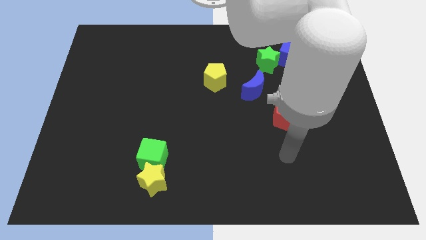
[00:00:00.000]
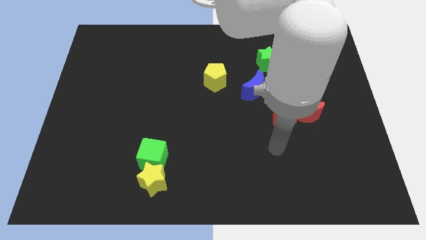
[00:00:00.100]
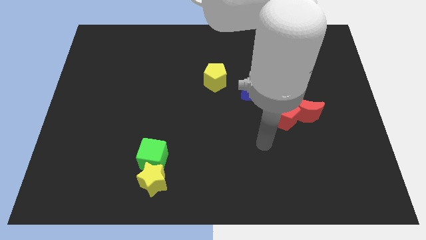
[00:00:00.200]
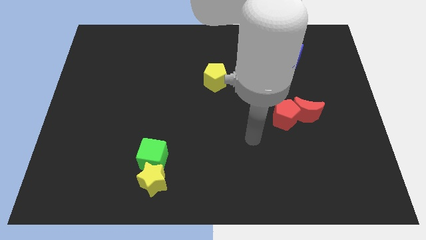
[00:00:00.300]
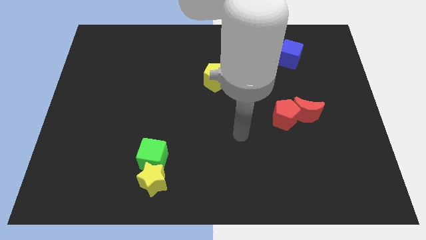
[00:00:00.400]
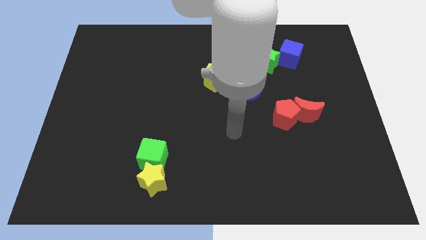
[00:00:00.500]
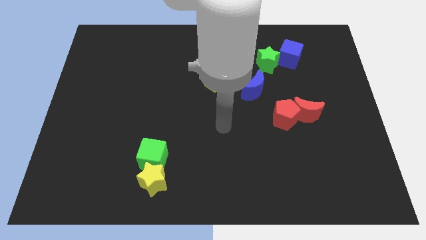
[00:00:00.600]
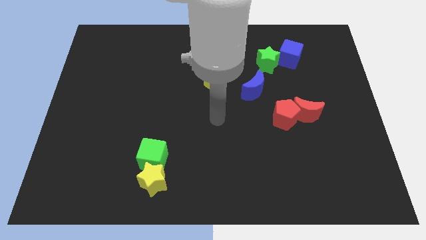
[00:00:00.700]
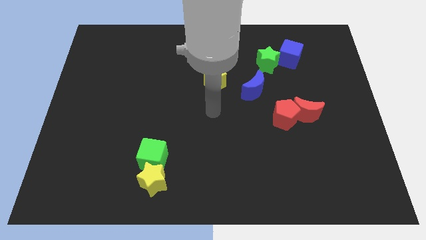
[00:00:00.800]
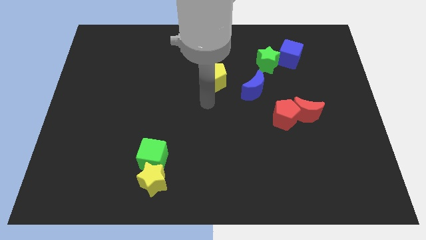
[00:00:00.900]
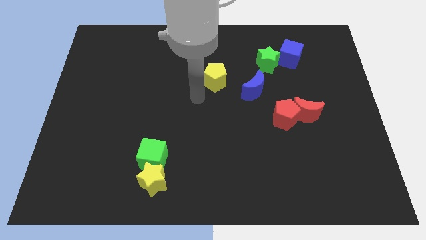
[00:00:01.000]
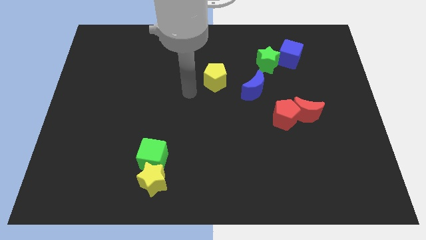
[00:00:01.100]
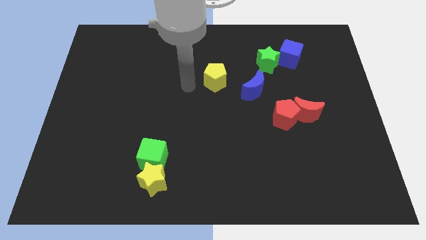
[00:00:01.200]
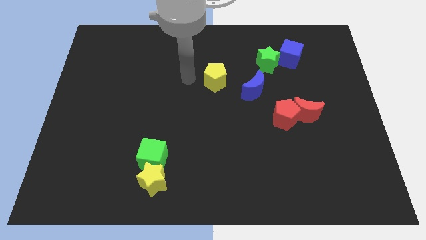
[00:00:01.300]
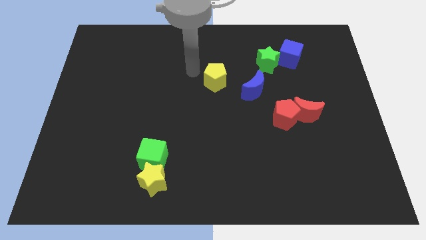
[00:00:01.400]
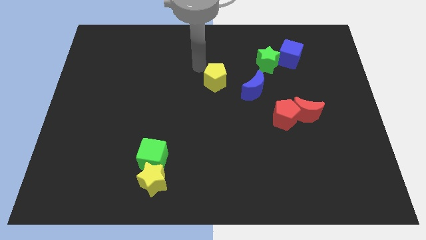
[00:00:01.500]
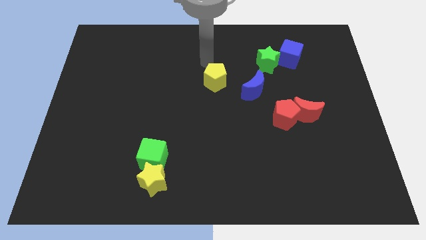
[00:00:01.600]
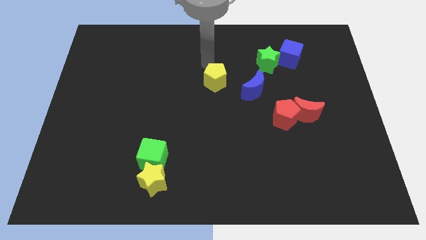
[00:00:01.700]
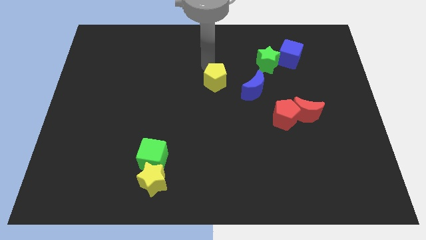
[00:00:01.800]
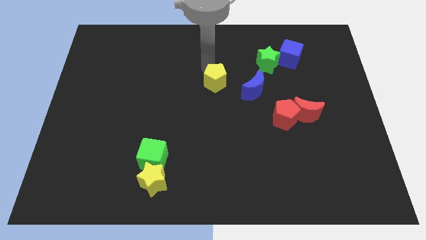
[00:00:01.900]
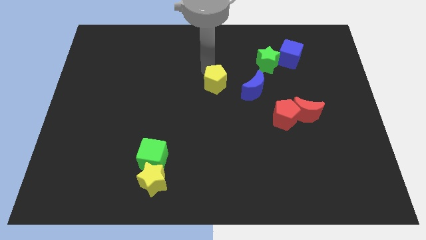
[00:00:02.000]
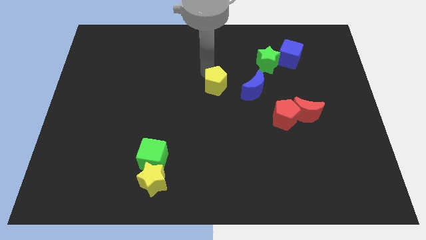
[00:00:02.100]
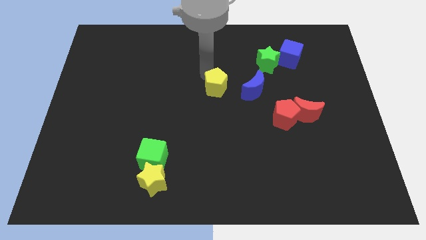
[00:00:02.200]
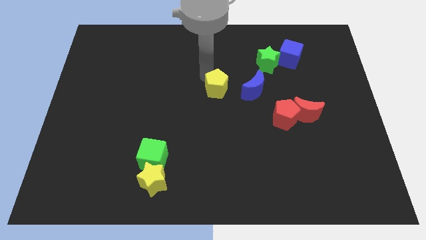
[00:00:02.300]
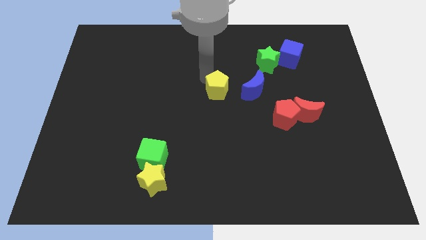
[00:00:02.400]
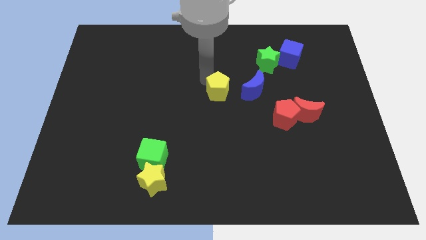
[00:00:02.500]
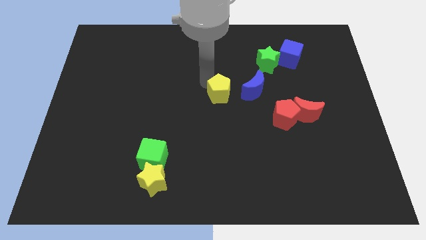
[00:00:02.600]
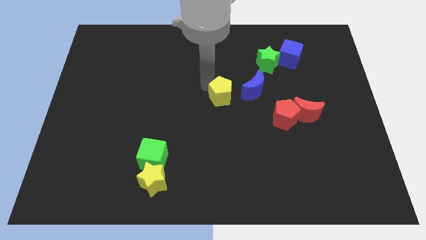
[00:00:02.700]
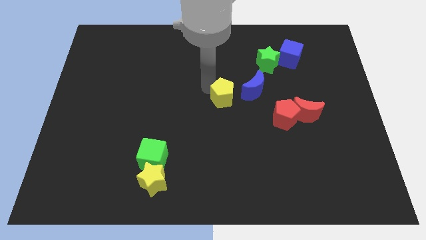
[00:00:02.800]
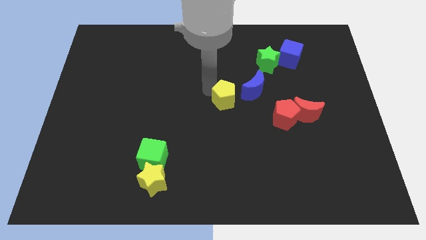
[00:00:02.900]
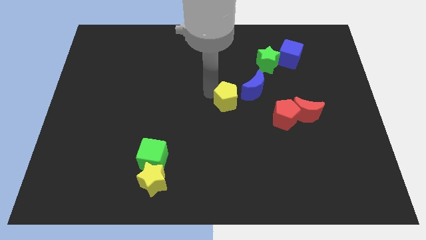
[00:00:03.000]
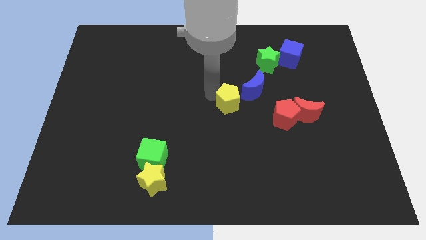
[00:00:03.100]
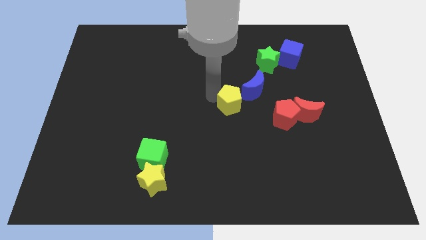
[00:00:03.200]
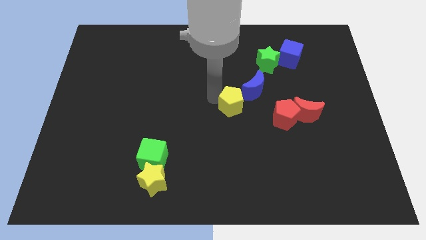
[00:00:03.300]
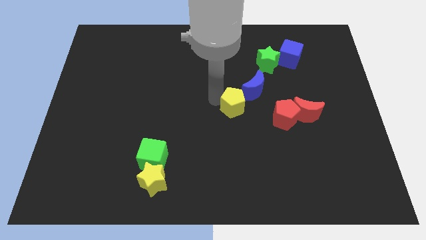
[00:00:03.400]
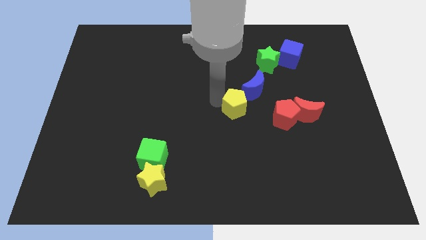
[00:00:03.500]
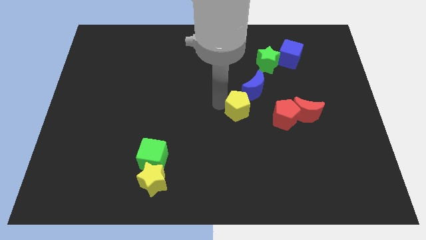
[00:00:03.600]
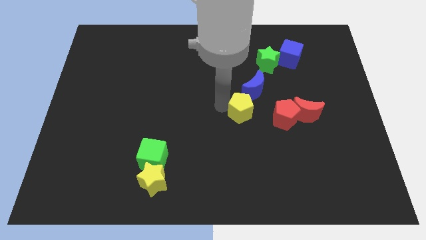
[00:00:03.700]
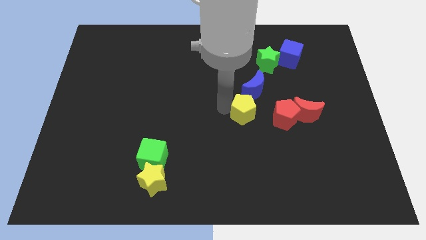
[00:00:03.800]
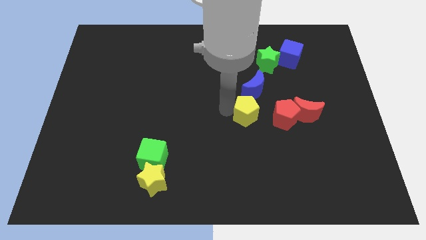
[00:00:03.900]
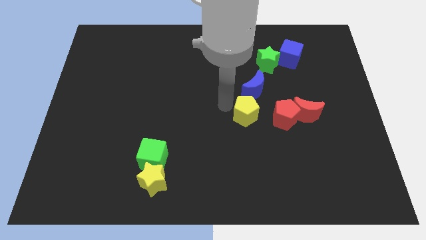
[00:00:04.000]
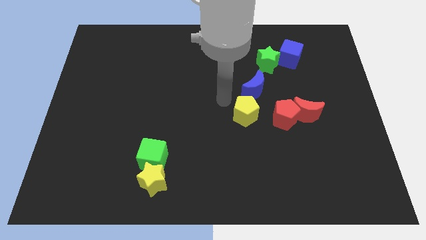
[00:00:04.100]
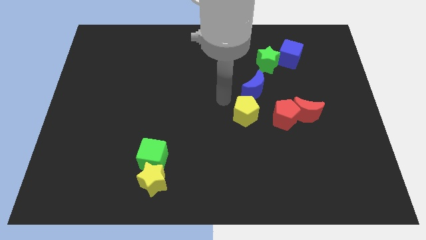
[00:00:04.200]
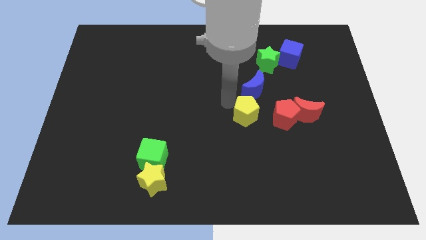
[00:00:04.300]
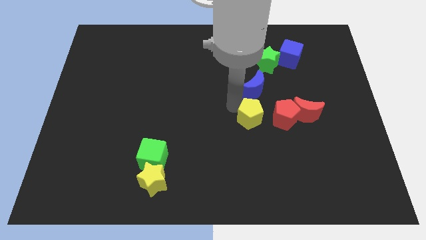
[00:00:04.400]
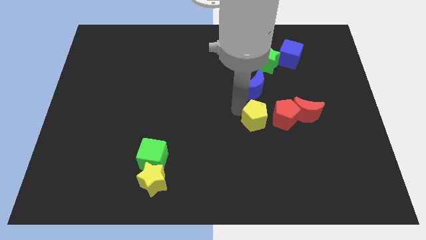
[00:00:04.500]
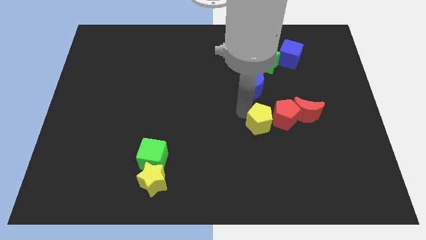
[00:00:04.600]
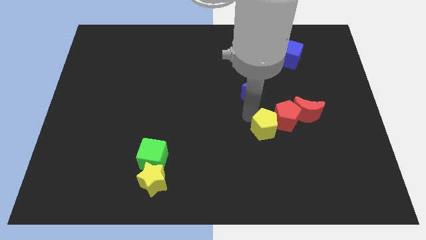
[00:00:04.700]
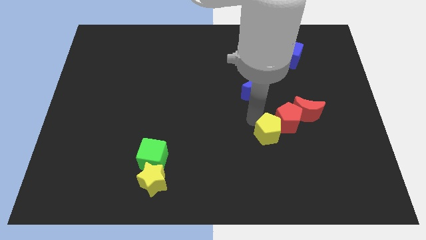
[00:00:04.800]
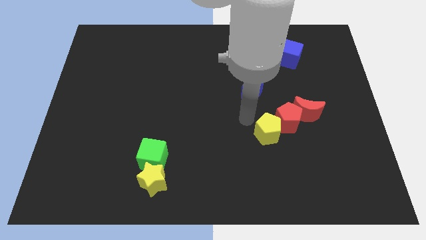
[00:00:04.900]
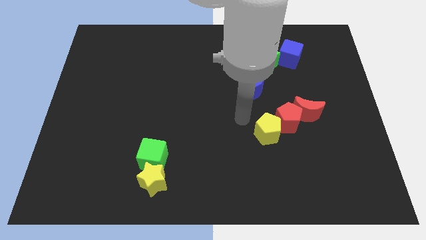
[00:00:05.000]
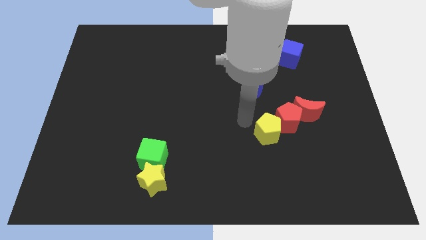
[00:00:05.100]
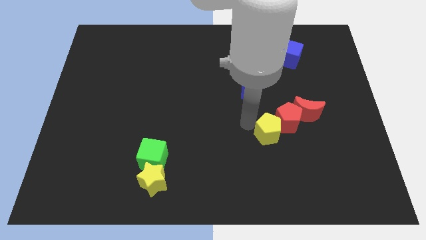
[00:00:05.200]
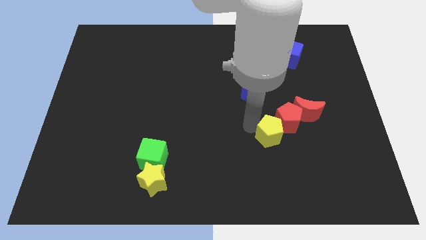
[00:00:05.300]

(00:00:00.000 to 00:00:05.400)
slide the yellow pentagon diagonally downwards and to the right

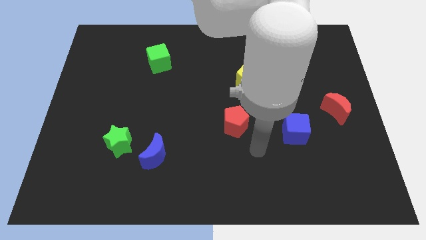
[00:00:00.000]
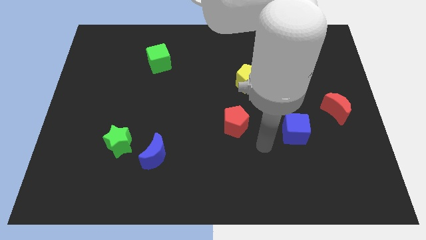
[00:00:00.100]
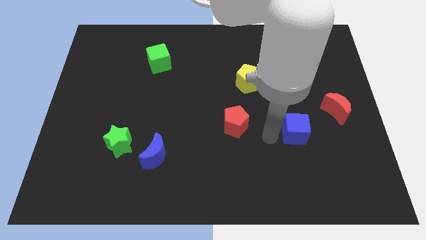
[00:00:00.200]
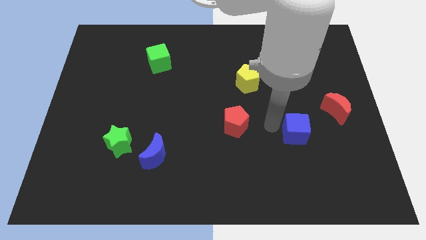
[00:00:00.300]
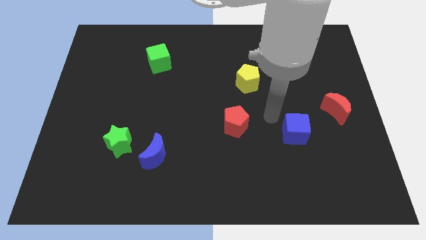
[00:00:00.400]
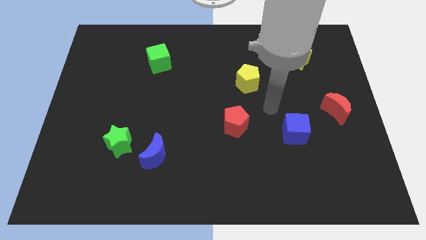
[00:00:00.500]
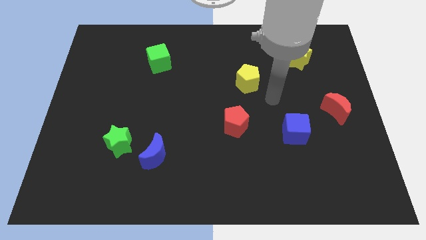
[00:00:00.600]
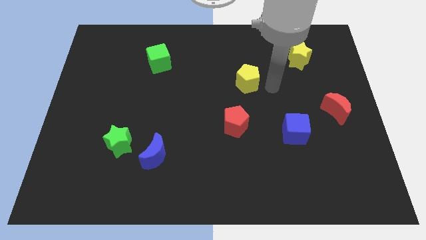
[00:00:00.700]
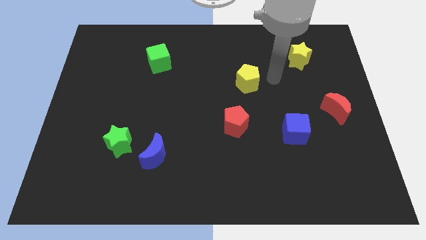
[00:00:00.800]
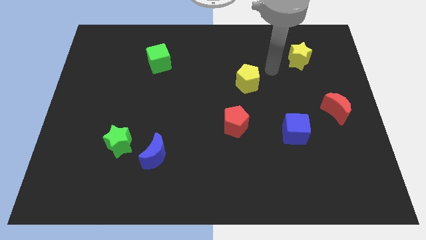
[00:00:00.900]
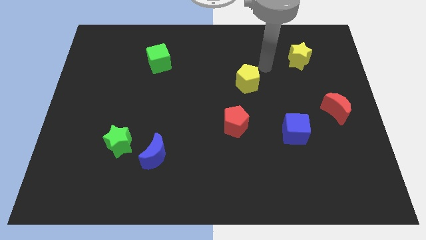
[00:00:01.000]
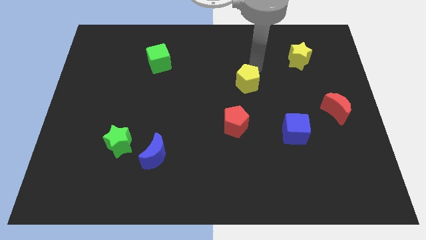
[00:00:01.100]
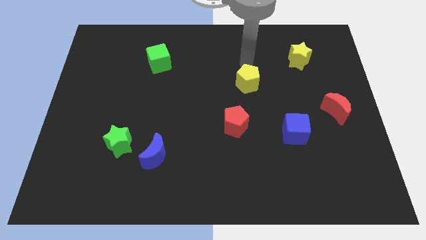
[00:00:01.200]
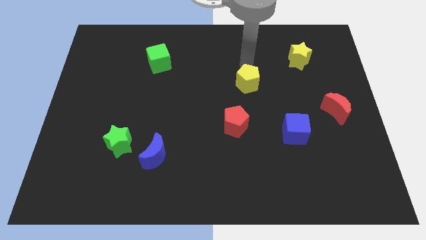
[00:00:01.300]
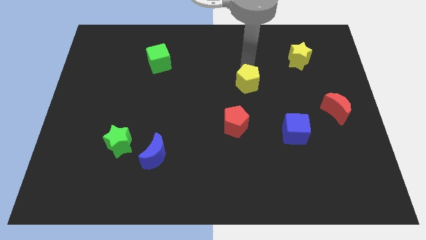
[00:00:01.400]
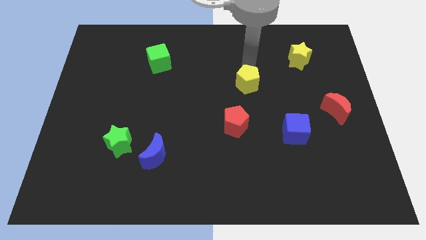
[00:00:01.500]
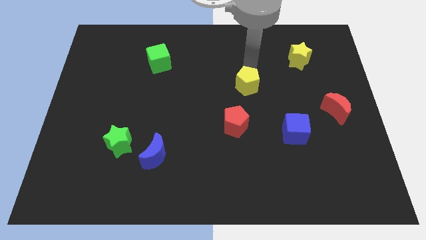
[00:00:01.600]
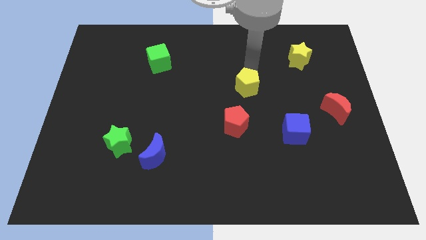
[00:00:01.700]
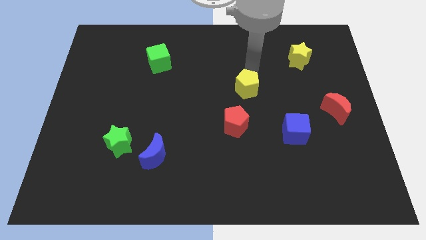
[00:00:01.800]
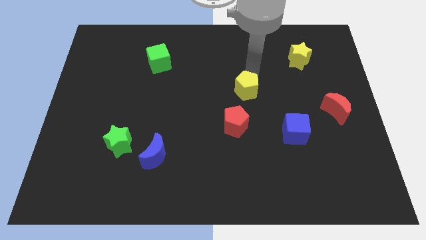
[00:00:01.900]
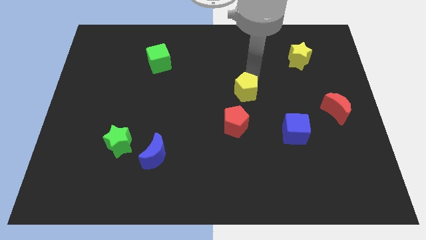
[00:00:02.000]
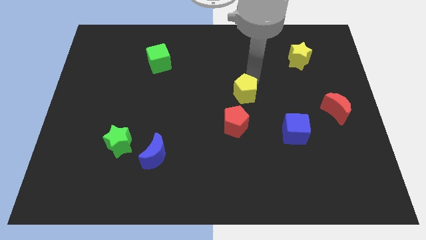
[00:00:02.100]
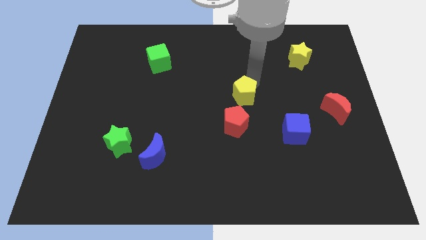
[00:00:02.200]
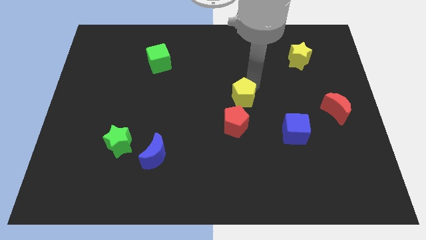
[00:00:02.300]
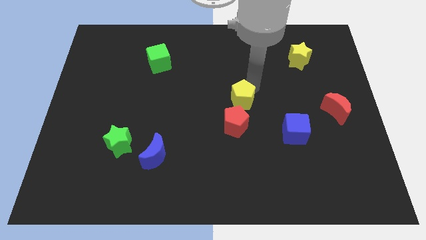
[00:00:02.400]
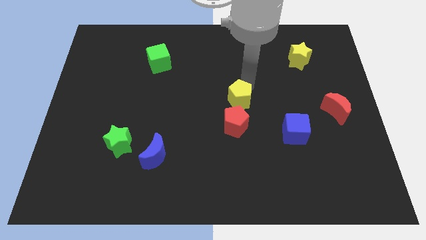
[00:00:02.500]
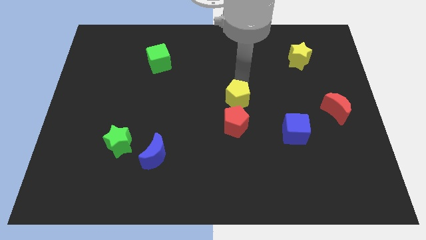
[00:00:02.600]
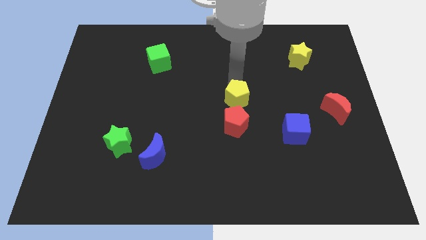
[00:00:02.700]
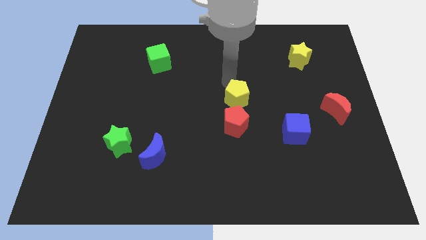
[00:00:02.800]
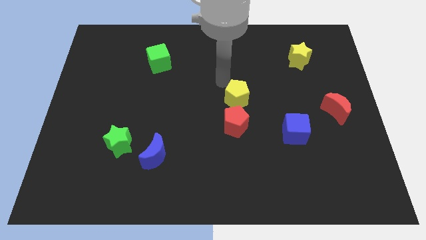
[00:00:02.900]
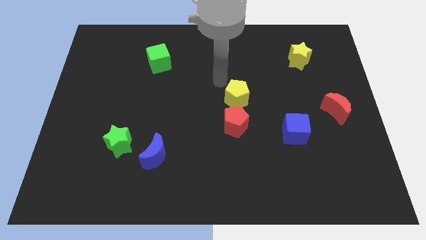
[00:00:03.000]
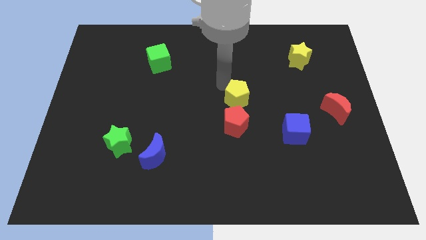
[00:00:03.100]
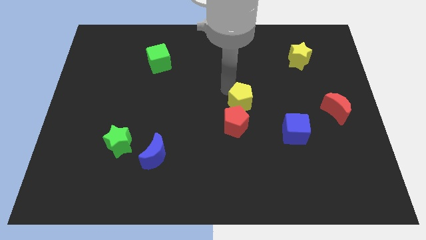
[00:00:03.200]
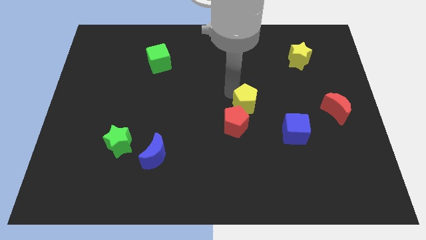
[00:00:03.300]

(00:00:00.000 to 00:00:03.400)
slightly slide the yellow pentagon down
